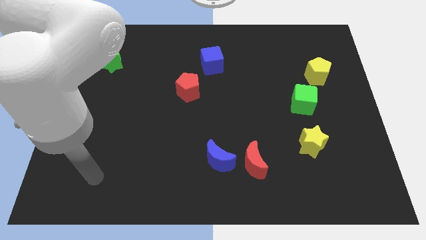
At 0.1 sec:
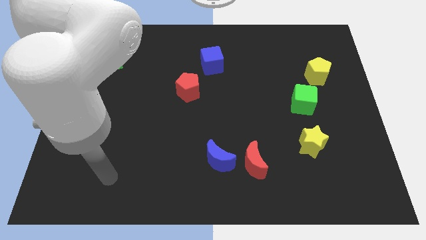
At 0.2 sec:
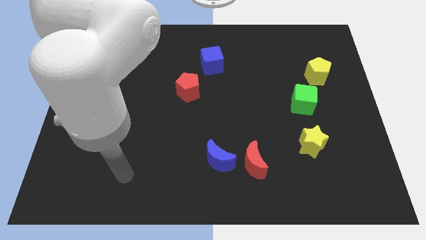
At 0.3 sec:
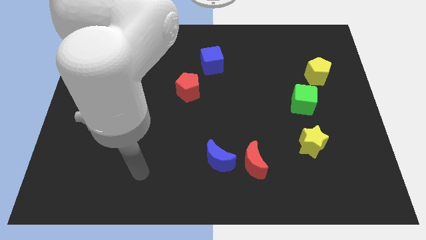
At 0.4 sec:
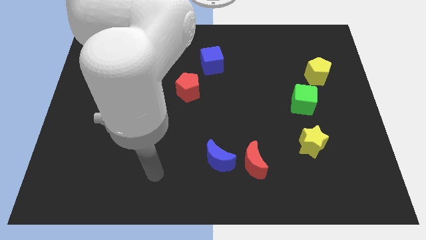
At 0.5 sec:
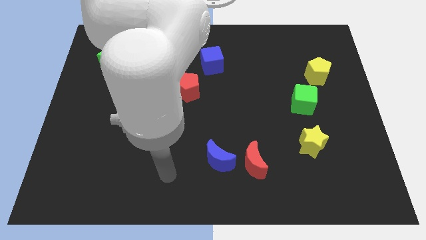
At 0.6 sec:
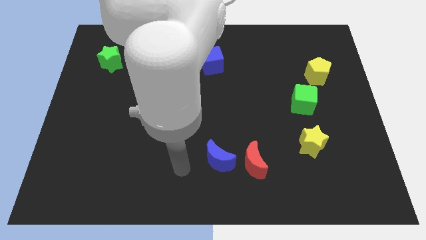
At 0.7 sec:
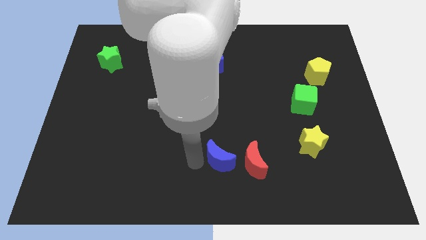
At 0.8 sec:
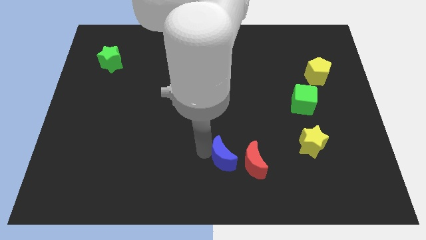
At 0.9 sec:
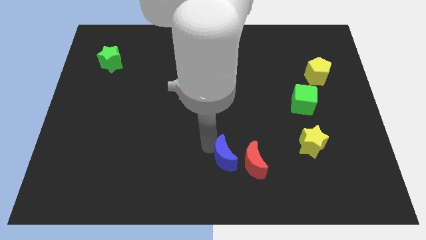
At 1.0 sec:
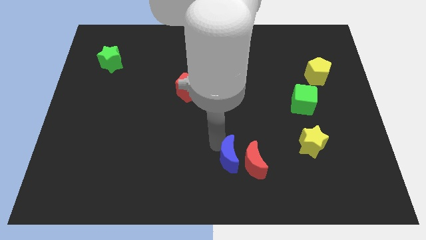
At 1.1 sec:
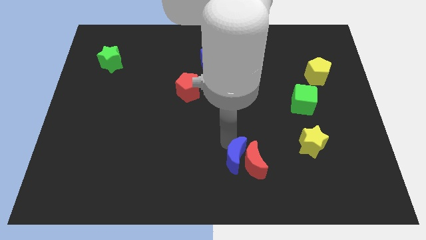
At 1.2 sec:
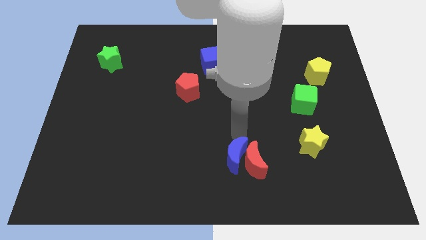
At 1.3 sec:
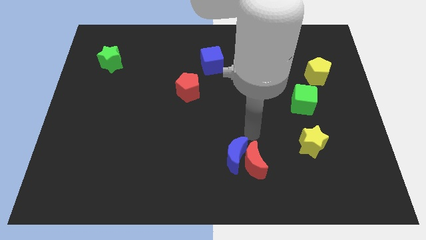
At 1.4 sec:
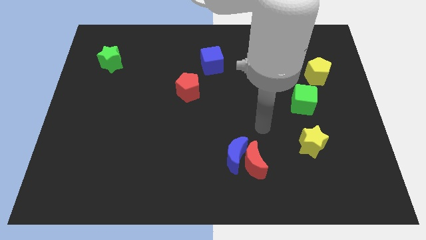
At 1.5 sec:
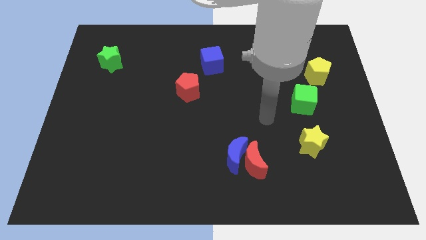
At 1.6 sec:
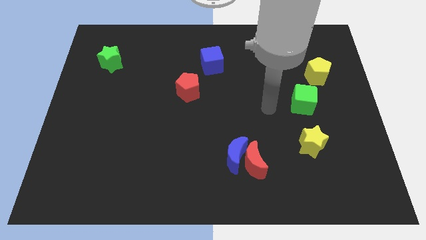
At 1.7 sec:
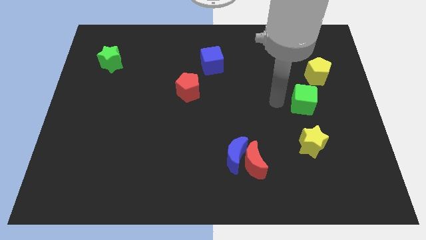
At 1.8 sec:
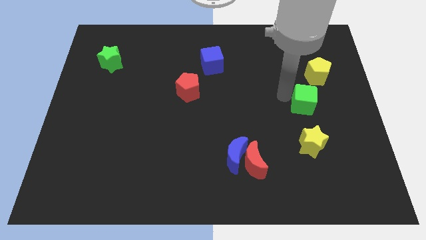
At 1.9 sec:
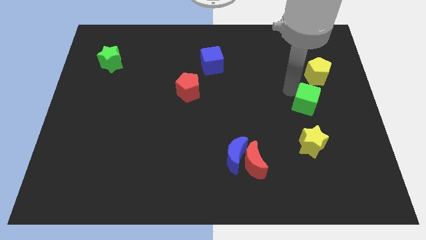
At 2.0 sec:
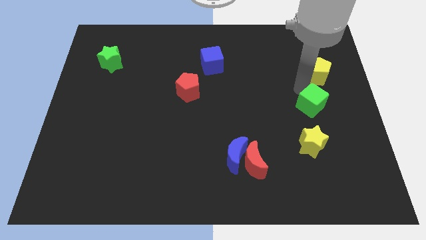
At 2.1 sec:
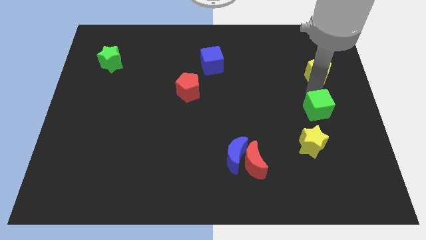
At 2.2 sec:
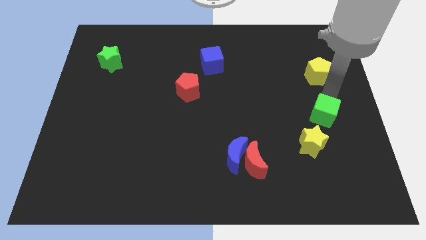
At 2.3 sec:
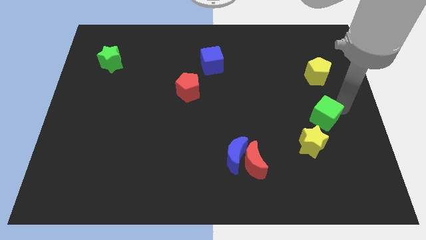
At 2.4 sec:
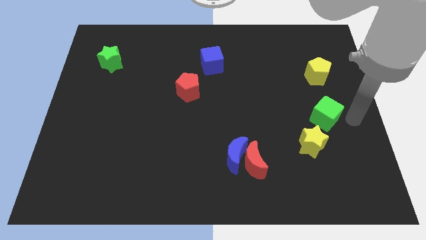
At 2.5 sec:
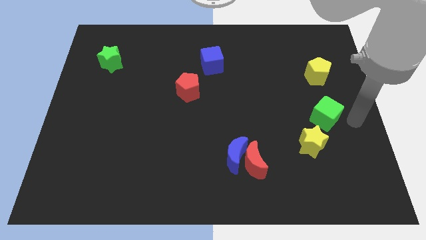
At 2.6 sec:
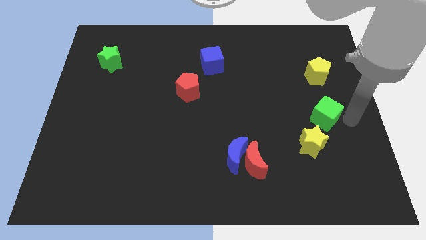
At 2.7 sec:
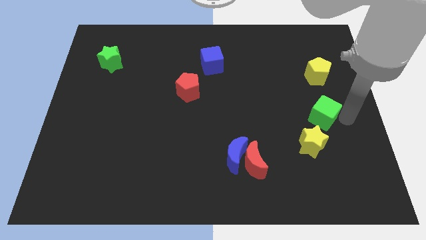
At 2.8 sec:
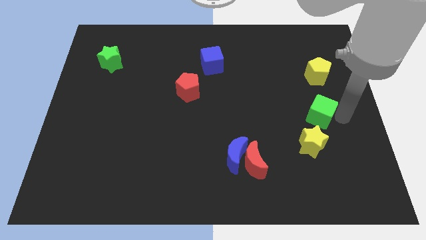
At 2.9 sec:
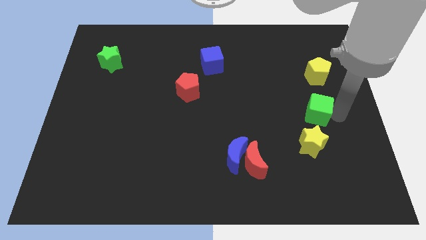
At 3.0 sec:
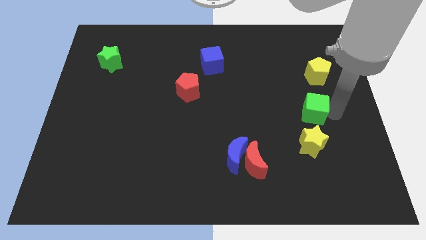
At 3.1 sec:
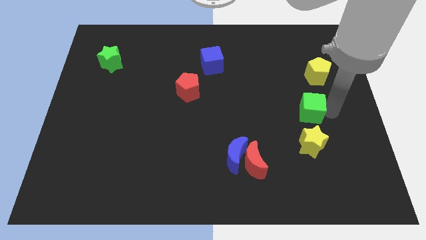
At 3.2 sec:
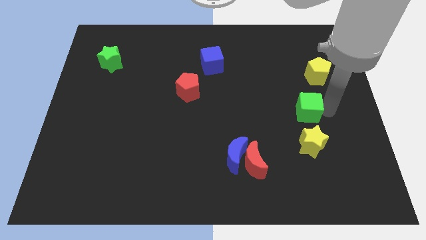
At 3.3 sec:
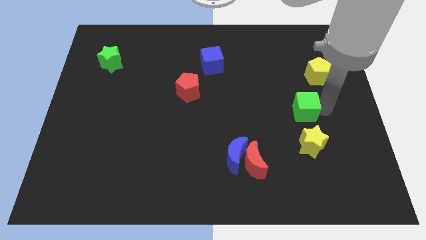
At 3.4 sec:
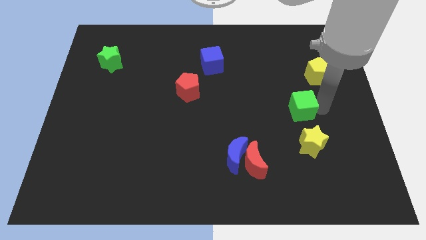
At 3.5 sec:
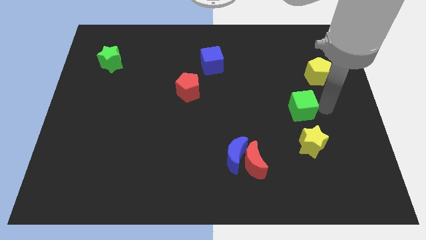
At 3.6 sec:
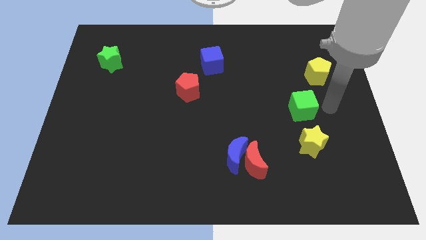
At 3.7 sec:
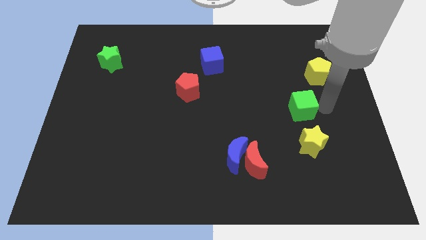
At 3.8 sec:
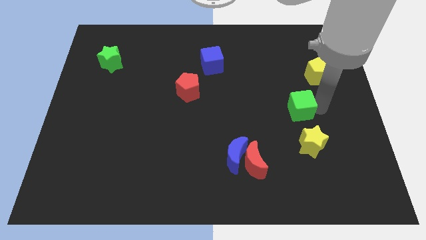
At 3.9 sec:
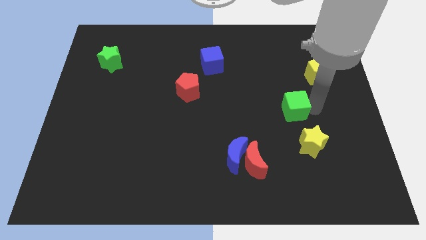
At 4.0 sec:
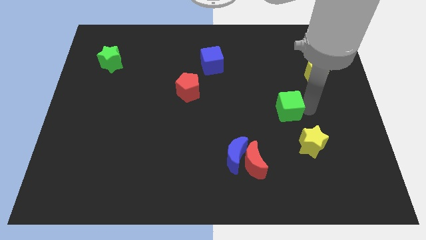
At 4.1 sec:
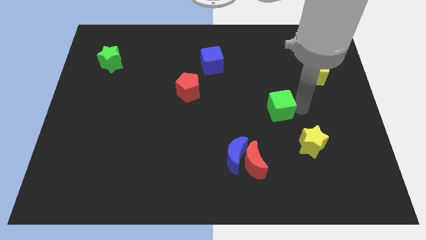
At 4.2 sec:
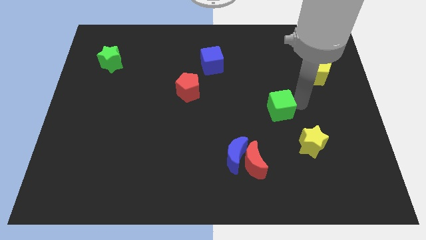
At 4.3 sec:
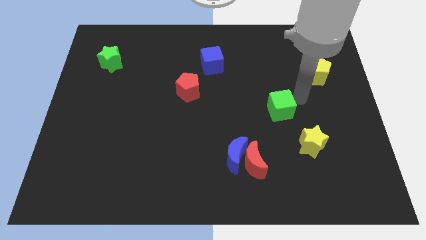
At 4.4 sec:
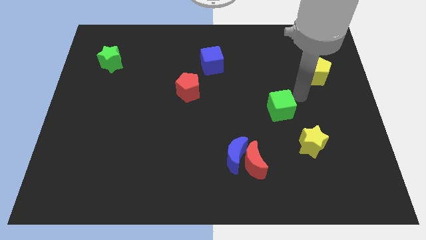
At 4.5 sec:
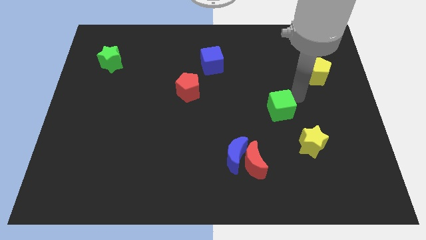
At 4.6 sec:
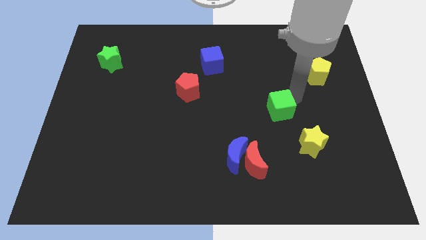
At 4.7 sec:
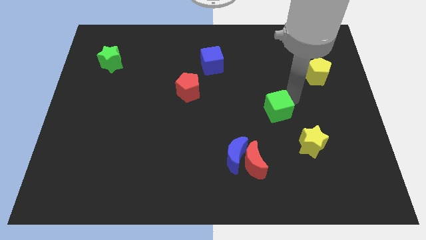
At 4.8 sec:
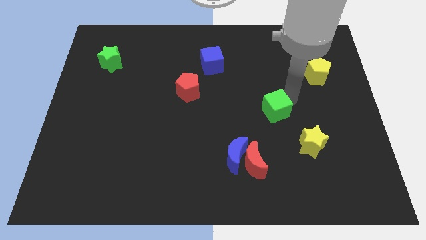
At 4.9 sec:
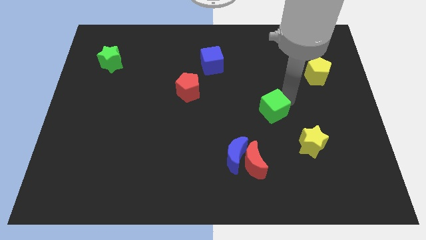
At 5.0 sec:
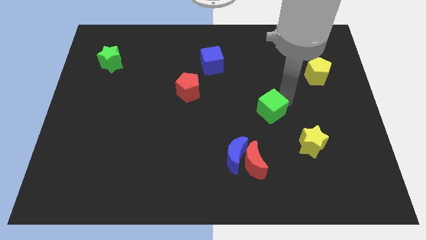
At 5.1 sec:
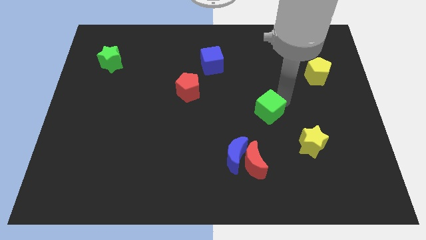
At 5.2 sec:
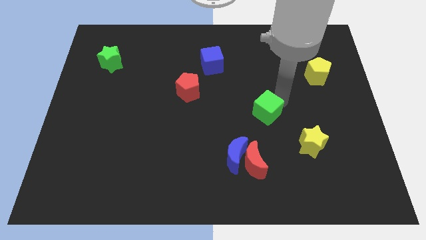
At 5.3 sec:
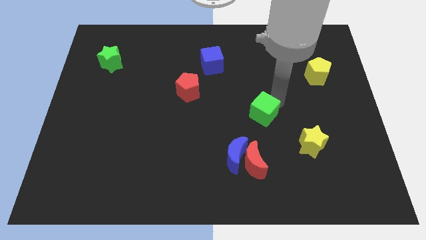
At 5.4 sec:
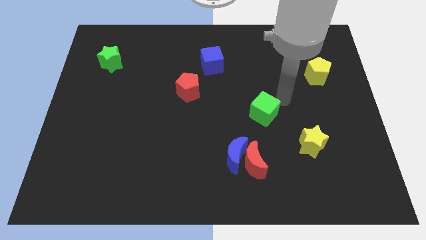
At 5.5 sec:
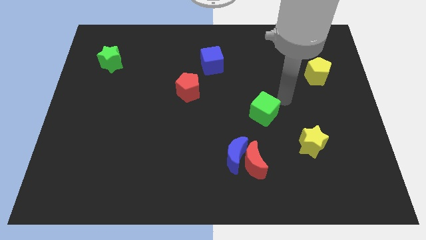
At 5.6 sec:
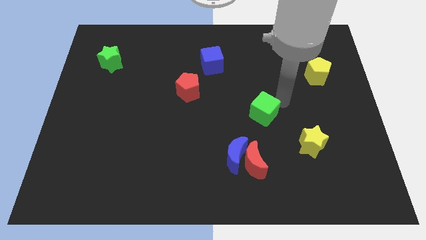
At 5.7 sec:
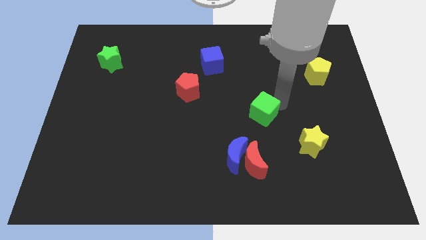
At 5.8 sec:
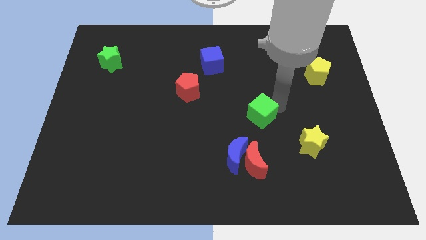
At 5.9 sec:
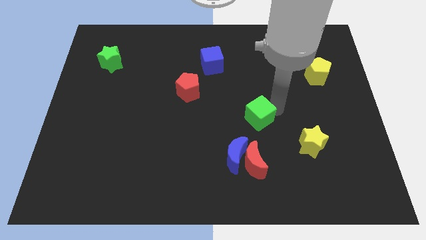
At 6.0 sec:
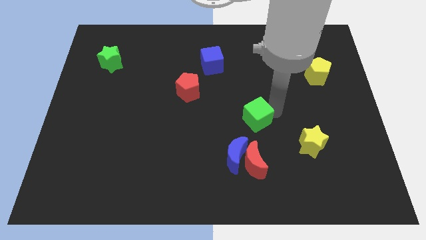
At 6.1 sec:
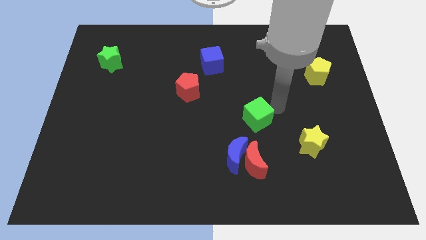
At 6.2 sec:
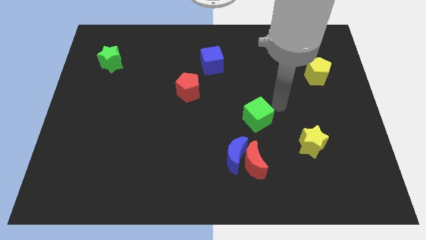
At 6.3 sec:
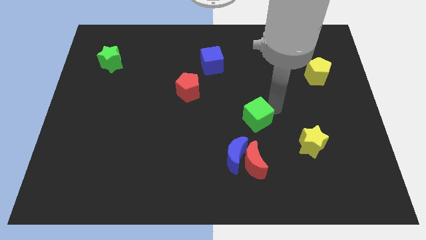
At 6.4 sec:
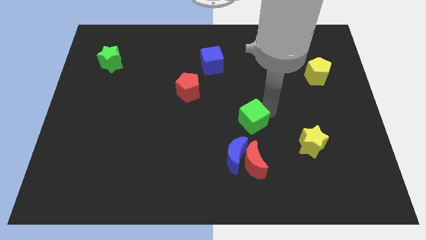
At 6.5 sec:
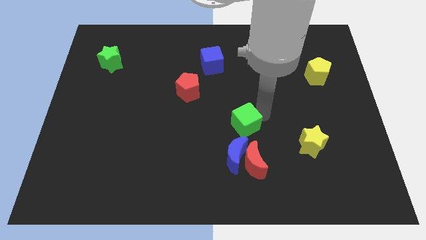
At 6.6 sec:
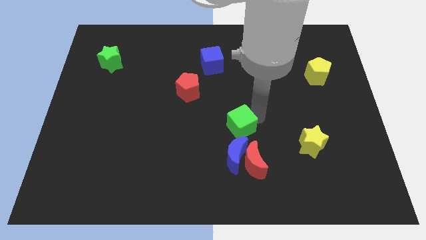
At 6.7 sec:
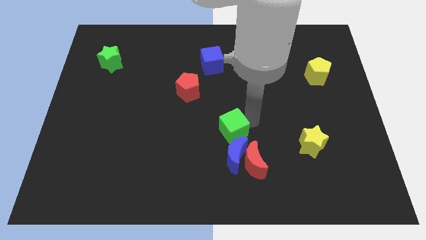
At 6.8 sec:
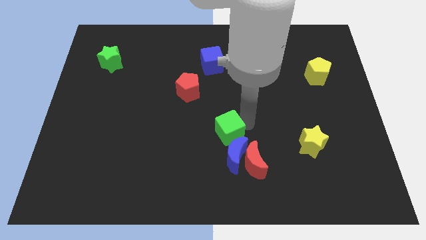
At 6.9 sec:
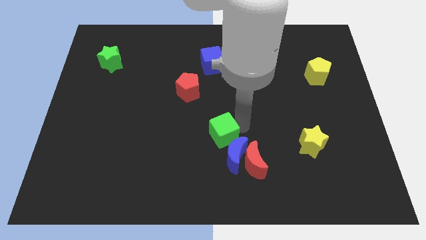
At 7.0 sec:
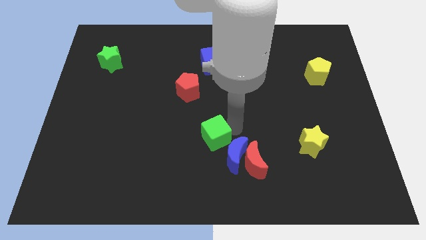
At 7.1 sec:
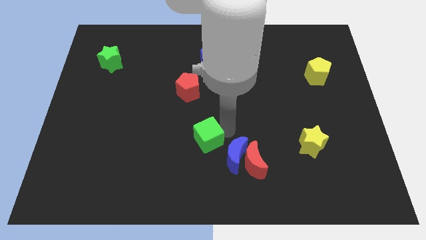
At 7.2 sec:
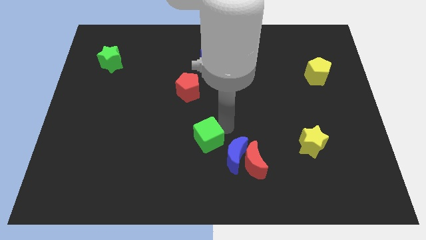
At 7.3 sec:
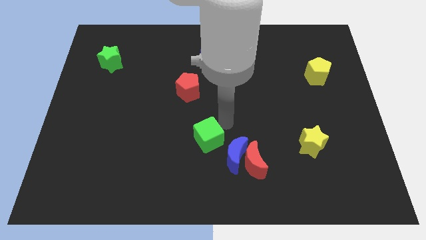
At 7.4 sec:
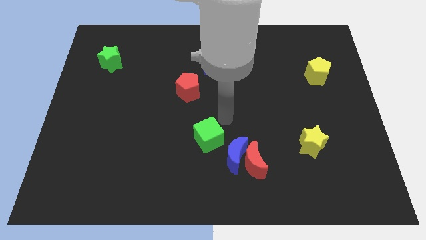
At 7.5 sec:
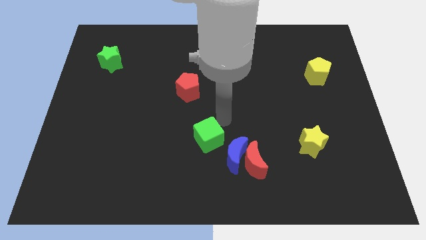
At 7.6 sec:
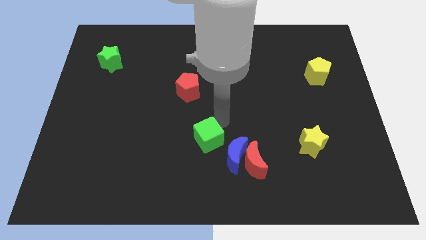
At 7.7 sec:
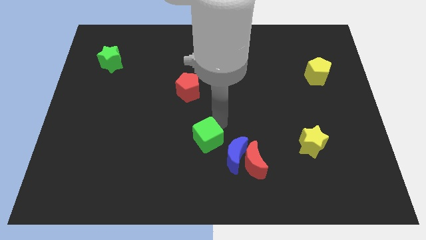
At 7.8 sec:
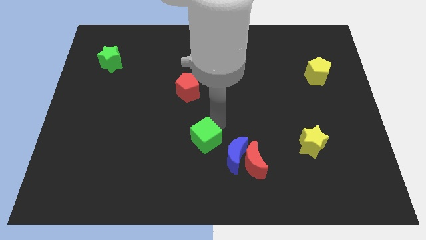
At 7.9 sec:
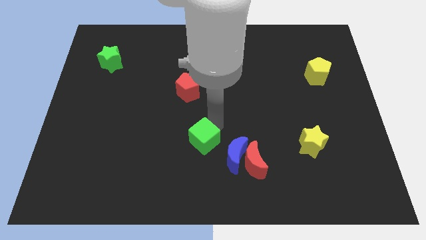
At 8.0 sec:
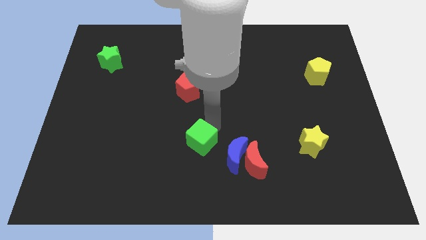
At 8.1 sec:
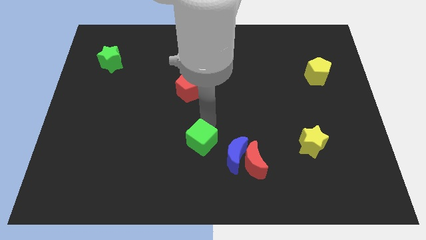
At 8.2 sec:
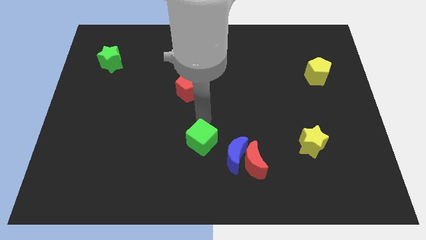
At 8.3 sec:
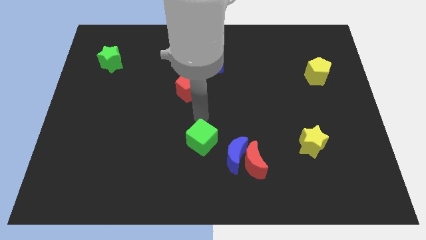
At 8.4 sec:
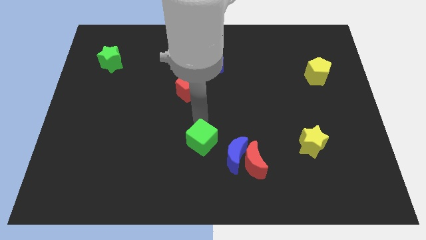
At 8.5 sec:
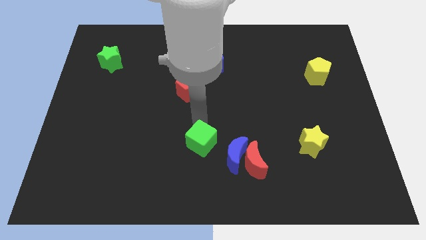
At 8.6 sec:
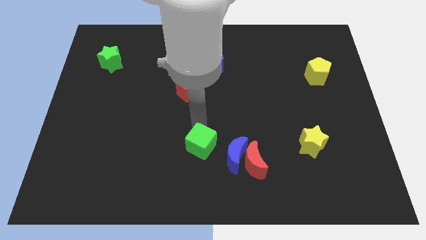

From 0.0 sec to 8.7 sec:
move the green cube to the left side of the red moon
